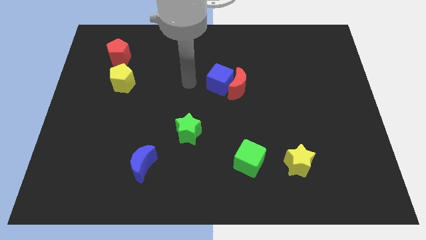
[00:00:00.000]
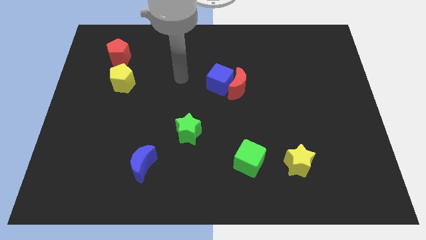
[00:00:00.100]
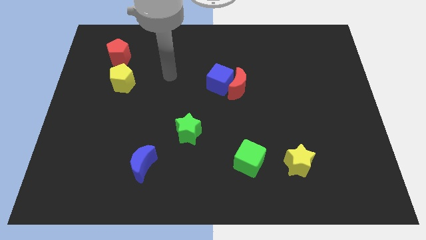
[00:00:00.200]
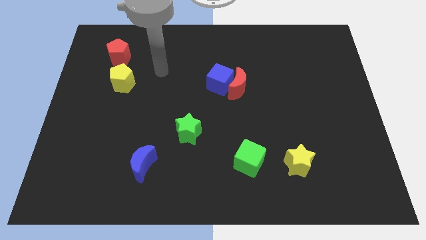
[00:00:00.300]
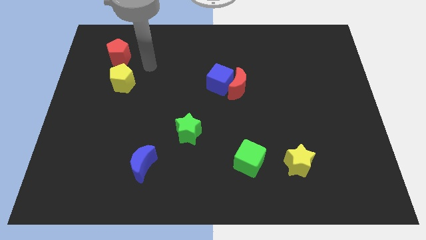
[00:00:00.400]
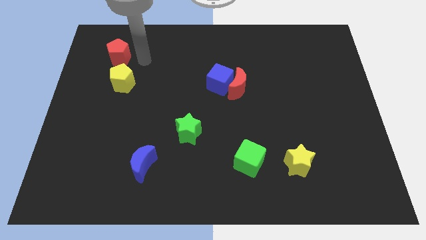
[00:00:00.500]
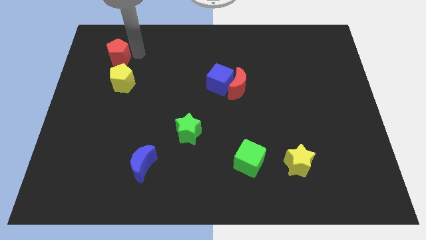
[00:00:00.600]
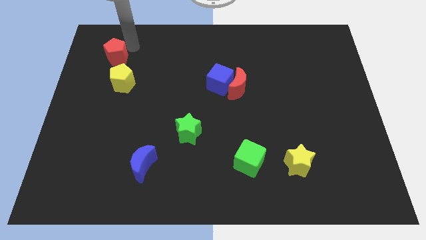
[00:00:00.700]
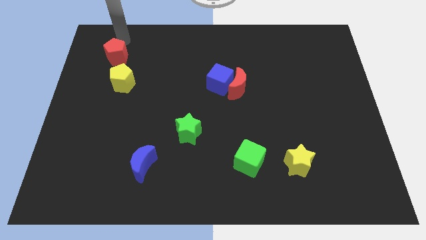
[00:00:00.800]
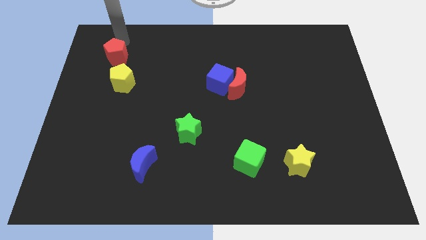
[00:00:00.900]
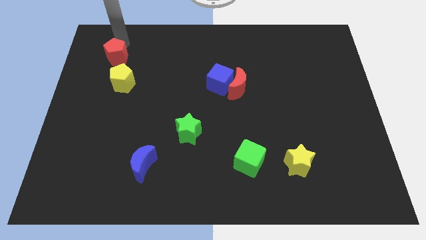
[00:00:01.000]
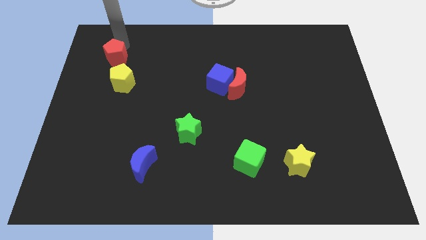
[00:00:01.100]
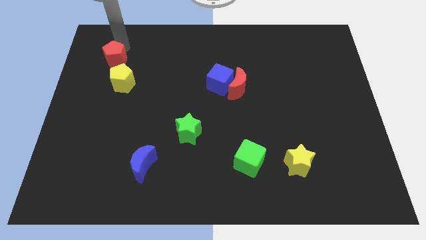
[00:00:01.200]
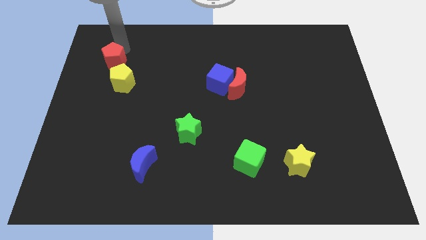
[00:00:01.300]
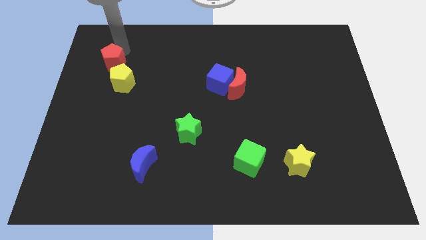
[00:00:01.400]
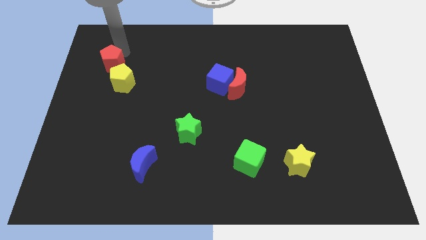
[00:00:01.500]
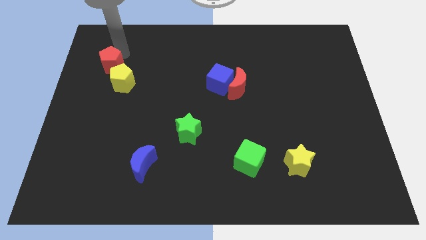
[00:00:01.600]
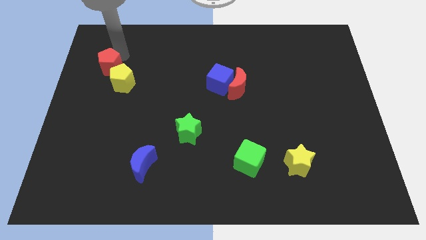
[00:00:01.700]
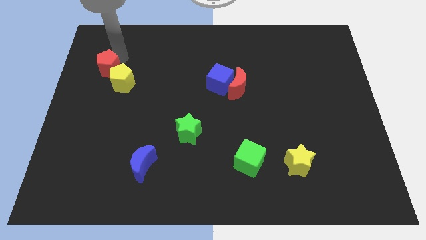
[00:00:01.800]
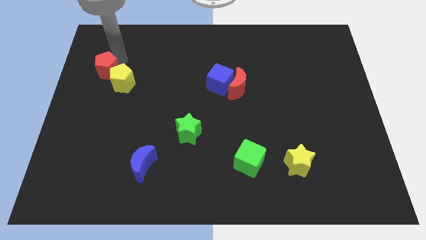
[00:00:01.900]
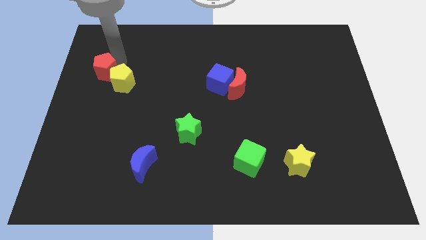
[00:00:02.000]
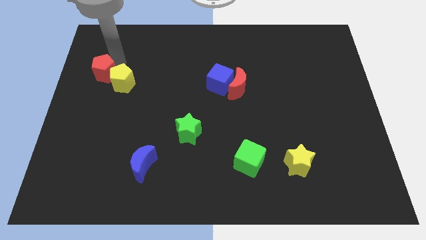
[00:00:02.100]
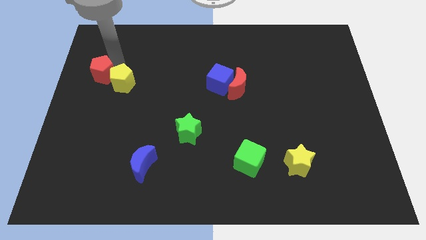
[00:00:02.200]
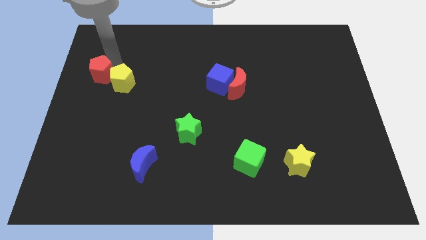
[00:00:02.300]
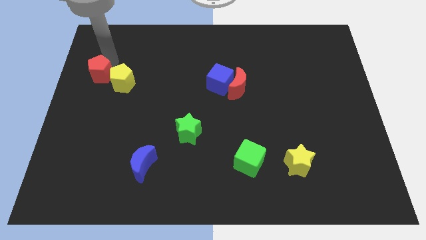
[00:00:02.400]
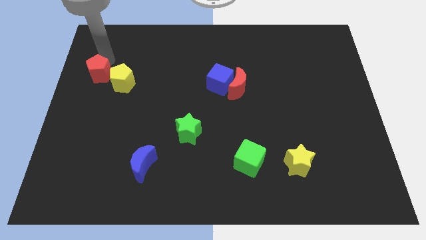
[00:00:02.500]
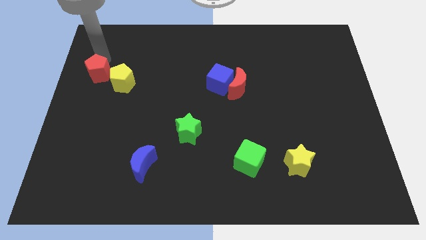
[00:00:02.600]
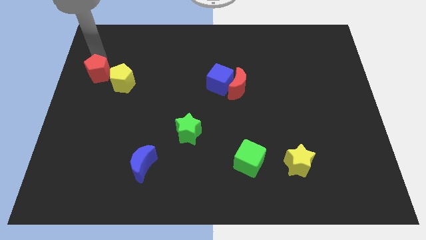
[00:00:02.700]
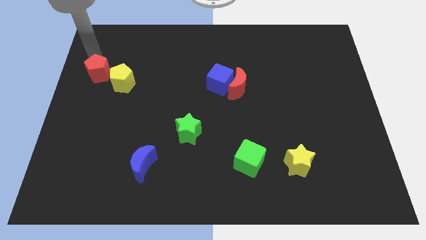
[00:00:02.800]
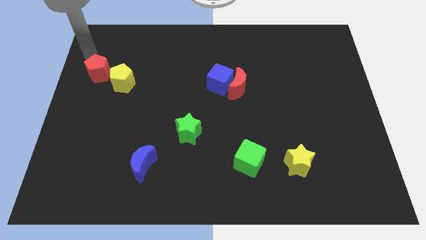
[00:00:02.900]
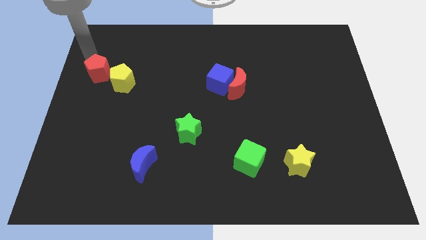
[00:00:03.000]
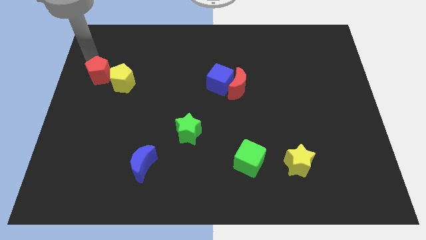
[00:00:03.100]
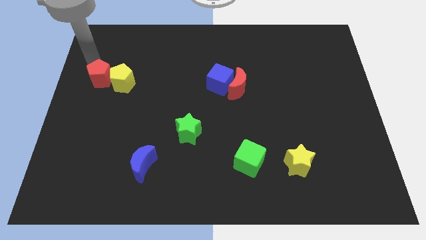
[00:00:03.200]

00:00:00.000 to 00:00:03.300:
slightly move the red pentagon down

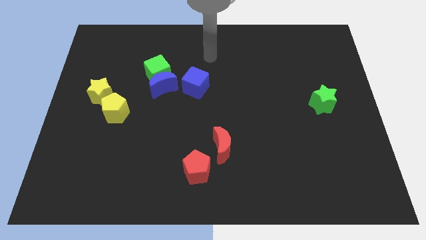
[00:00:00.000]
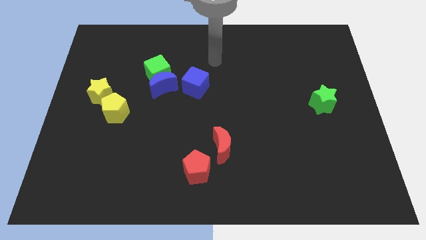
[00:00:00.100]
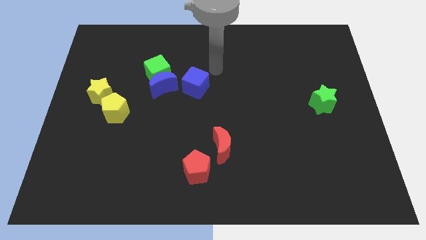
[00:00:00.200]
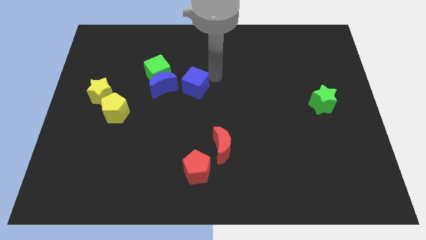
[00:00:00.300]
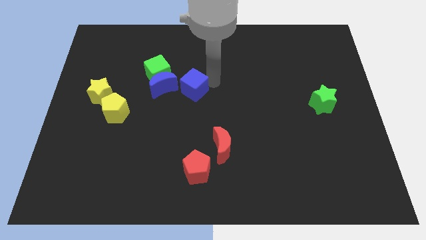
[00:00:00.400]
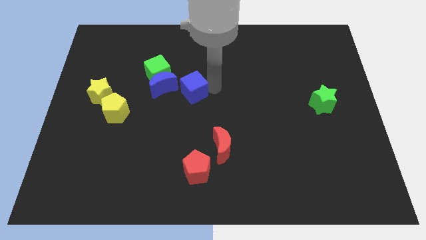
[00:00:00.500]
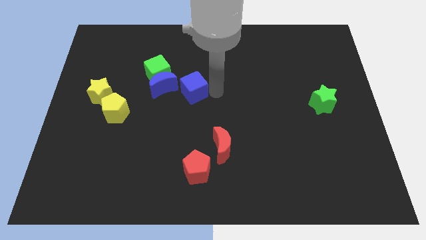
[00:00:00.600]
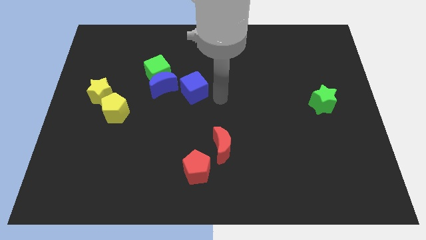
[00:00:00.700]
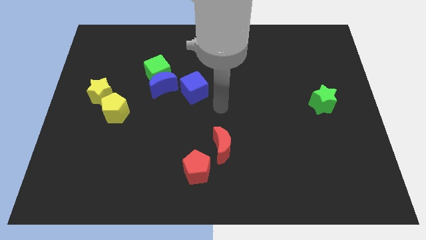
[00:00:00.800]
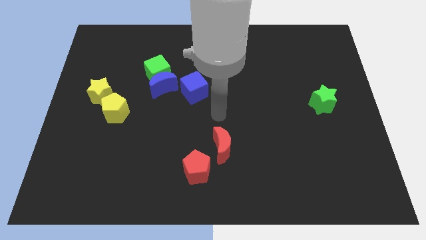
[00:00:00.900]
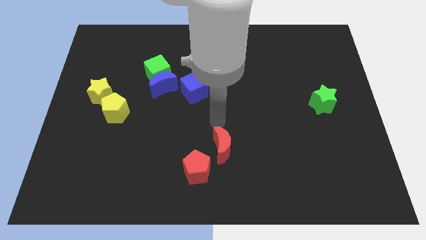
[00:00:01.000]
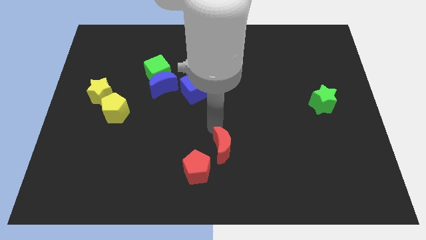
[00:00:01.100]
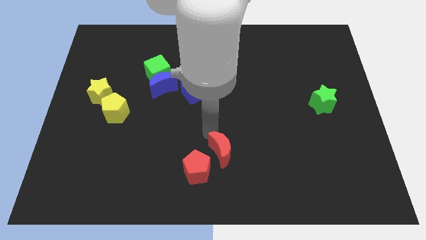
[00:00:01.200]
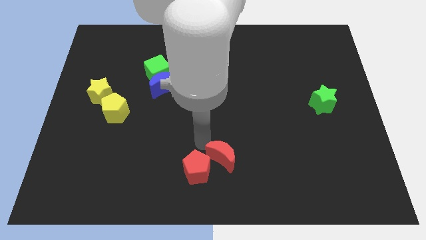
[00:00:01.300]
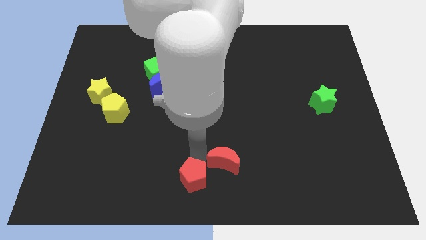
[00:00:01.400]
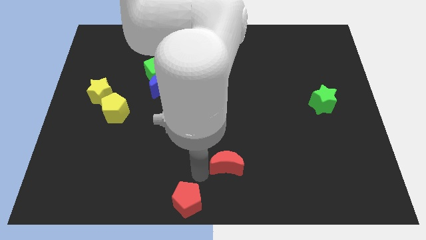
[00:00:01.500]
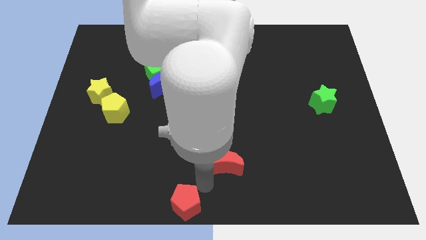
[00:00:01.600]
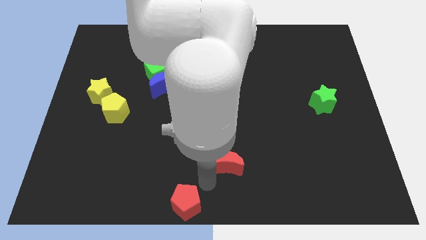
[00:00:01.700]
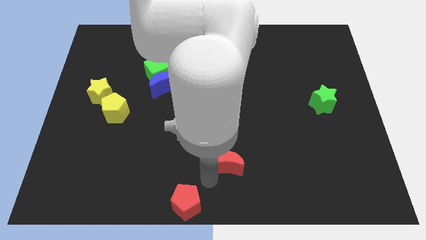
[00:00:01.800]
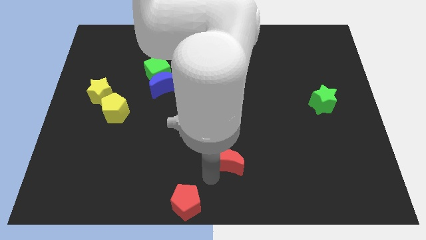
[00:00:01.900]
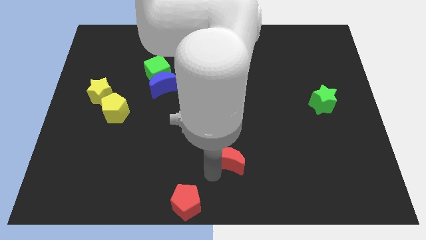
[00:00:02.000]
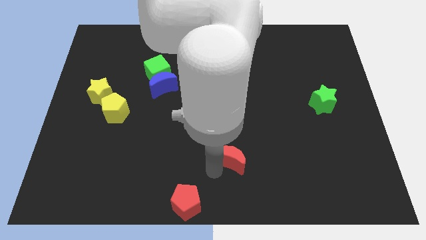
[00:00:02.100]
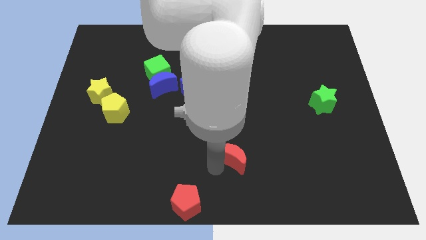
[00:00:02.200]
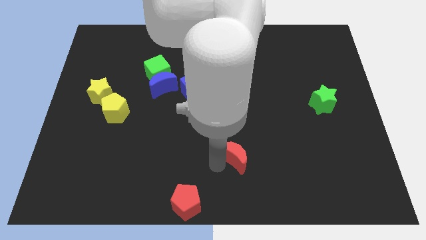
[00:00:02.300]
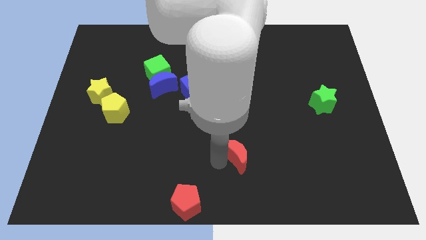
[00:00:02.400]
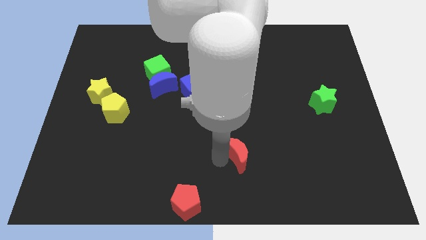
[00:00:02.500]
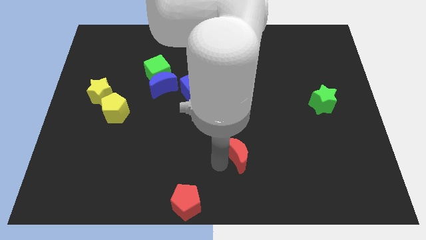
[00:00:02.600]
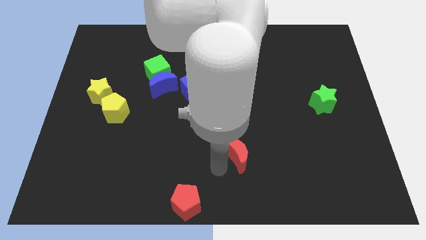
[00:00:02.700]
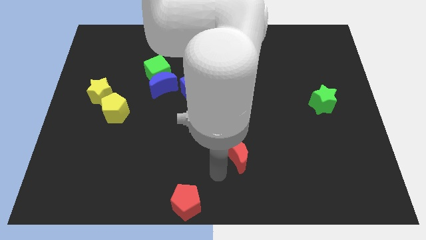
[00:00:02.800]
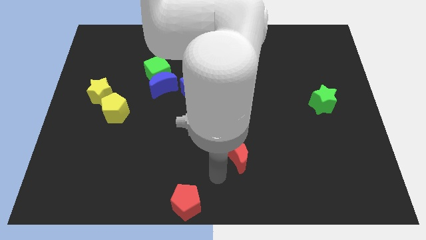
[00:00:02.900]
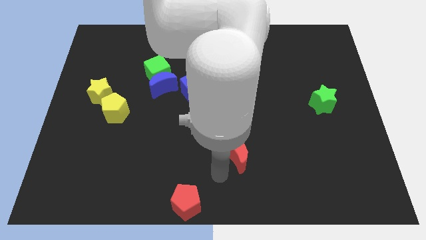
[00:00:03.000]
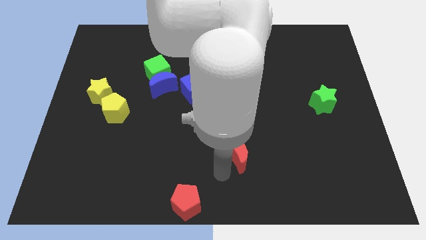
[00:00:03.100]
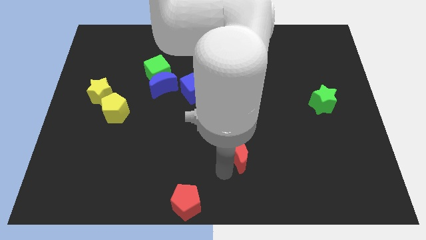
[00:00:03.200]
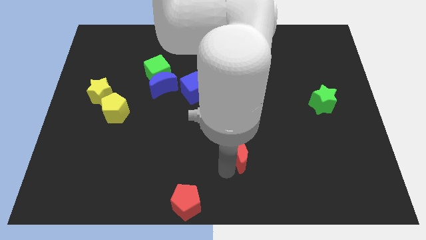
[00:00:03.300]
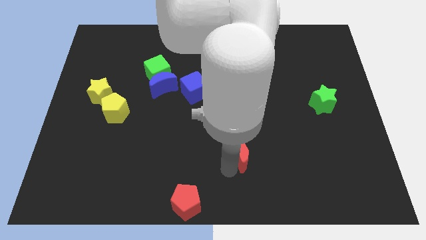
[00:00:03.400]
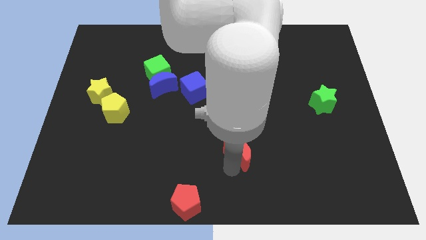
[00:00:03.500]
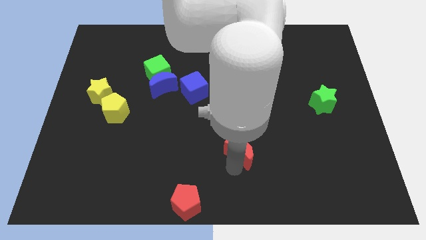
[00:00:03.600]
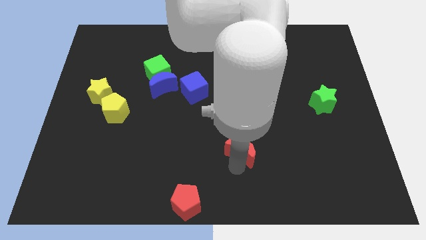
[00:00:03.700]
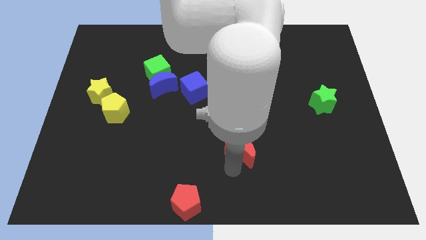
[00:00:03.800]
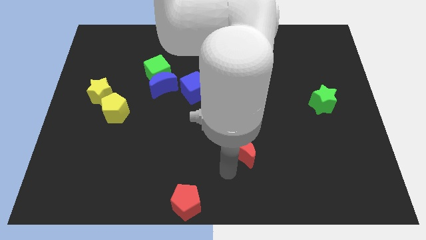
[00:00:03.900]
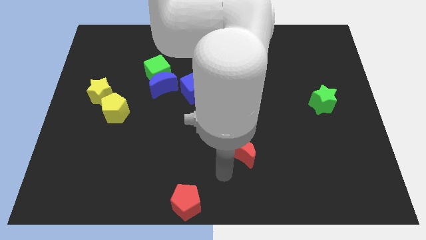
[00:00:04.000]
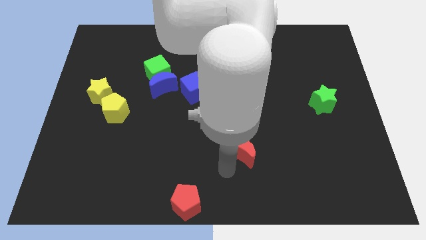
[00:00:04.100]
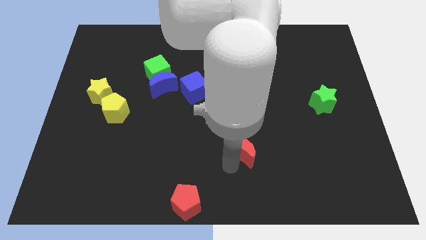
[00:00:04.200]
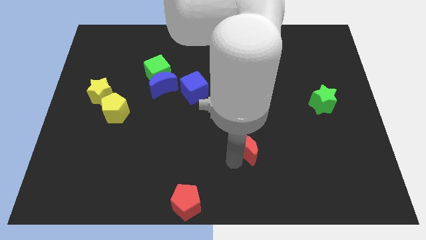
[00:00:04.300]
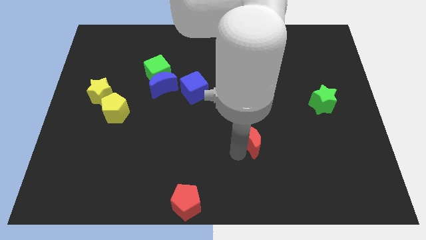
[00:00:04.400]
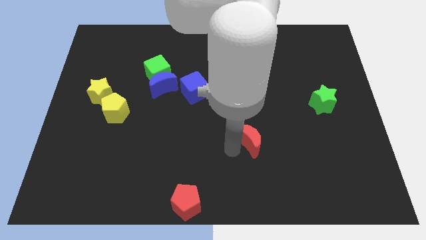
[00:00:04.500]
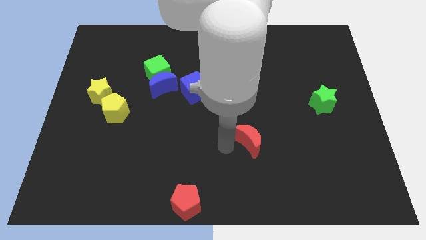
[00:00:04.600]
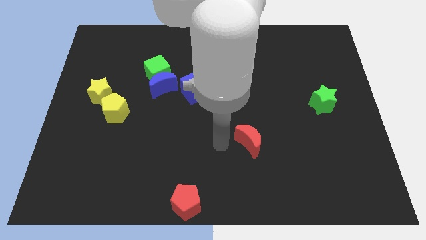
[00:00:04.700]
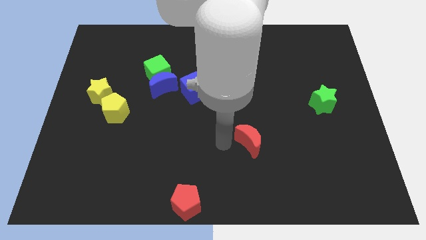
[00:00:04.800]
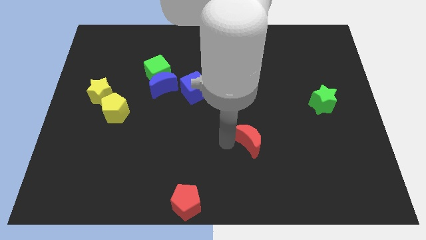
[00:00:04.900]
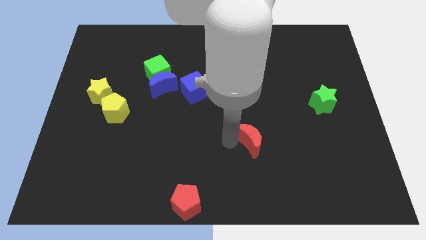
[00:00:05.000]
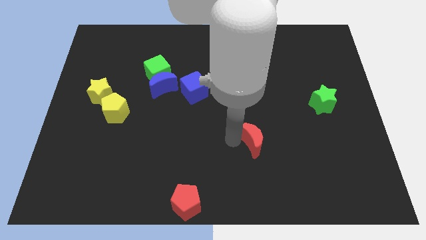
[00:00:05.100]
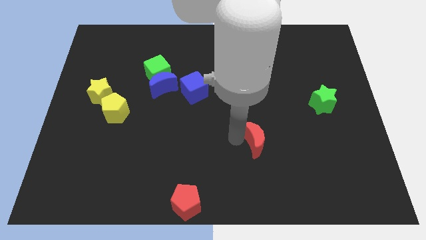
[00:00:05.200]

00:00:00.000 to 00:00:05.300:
move the red moon to the right a bit
